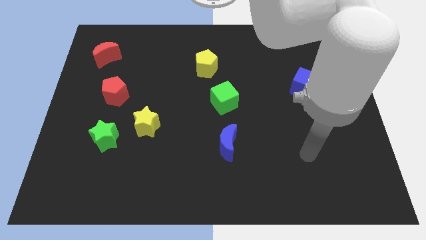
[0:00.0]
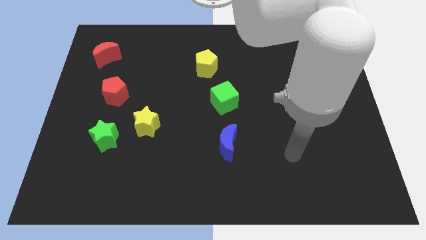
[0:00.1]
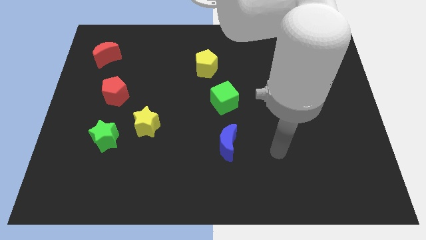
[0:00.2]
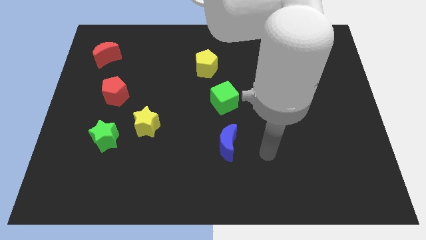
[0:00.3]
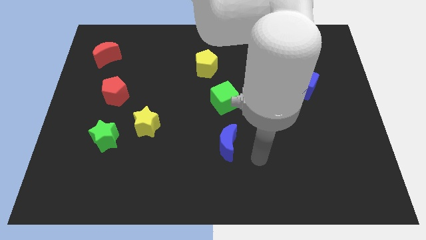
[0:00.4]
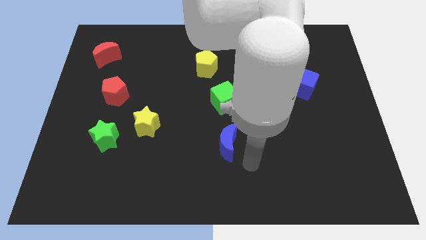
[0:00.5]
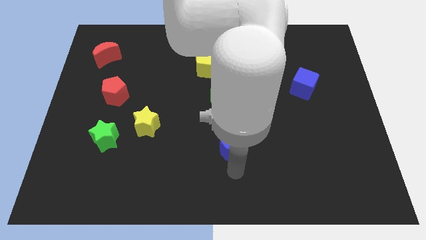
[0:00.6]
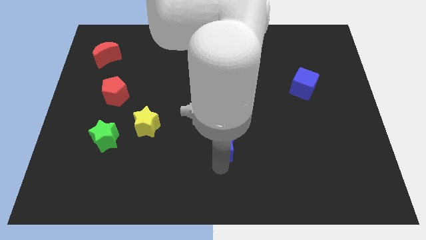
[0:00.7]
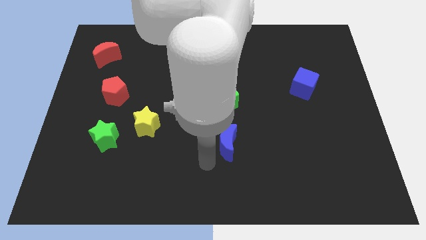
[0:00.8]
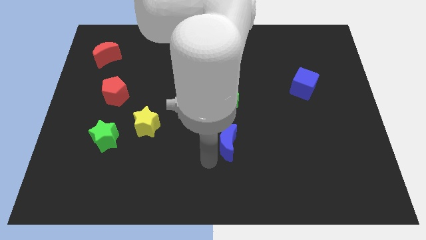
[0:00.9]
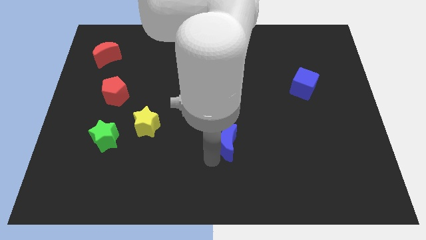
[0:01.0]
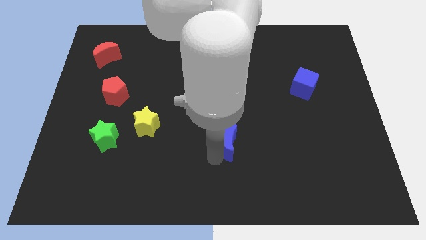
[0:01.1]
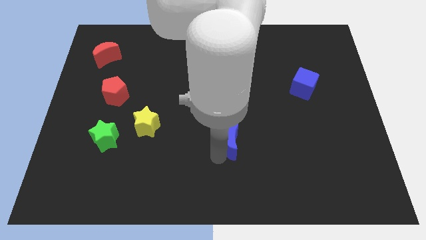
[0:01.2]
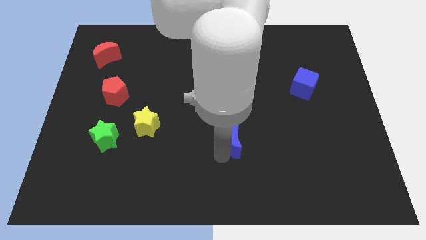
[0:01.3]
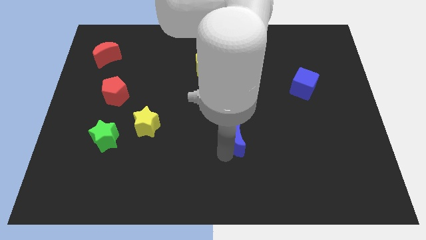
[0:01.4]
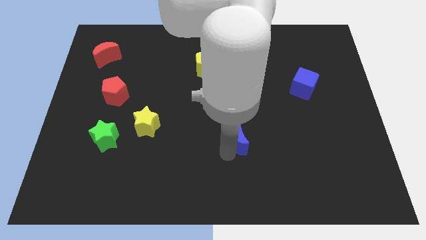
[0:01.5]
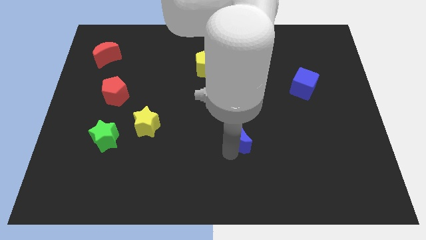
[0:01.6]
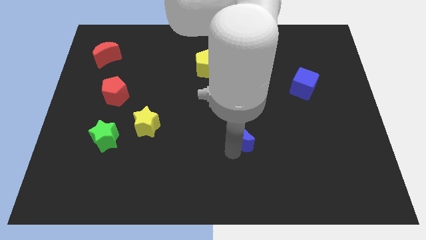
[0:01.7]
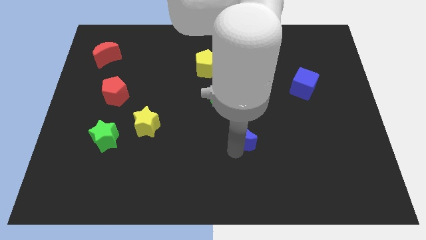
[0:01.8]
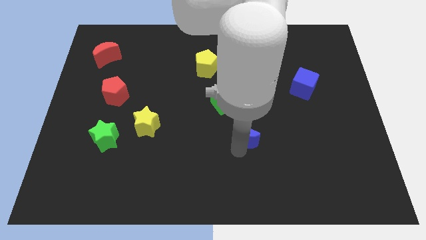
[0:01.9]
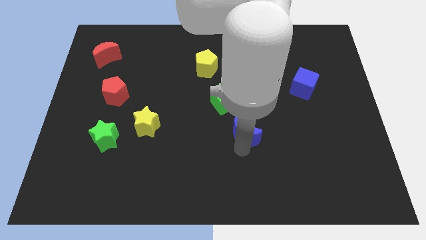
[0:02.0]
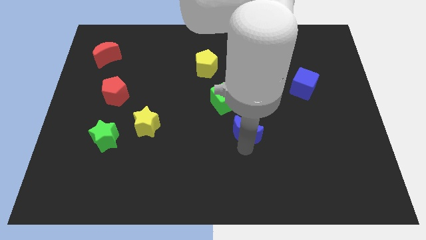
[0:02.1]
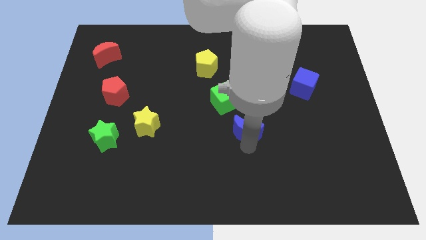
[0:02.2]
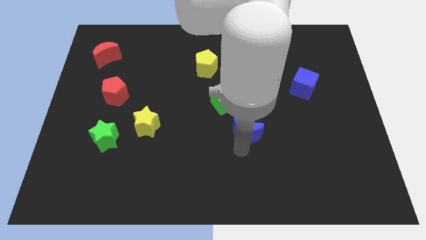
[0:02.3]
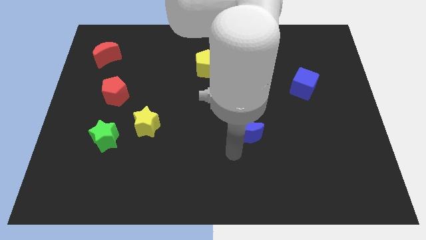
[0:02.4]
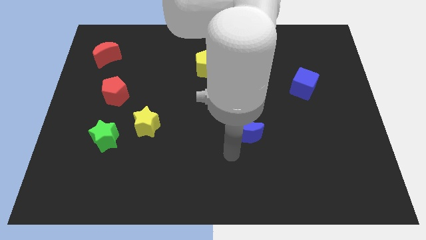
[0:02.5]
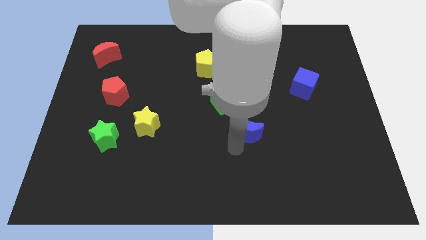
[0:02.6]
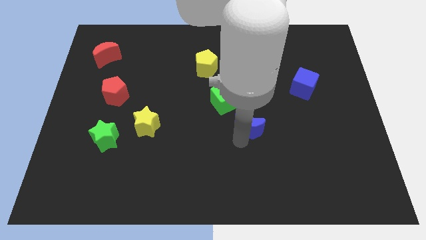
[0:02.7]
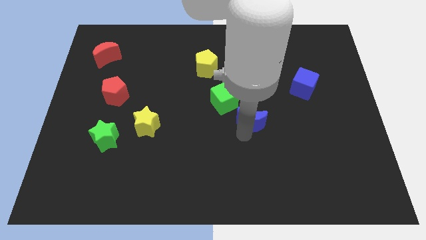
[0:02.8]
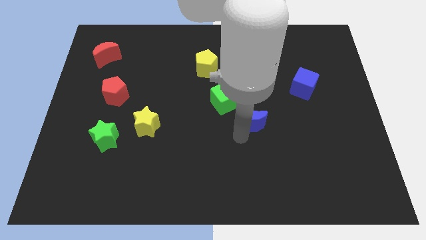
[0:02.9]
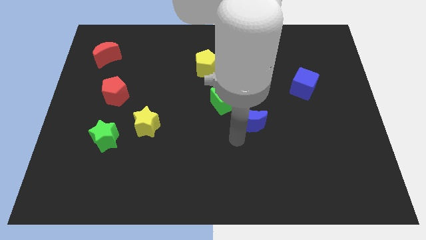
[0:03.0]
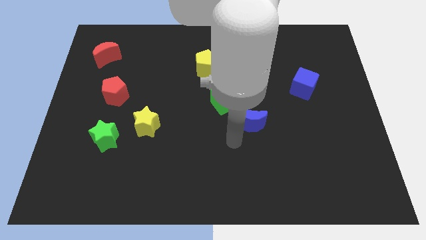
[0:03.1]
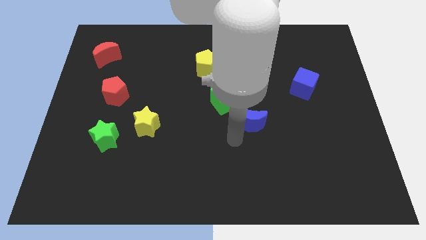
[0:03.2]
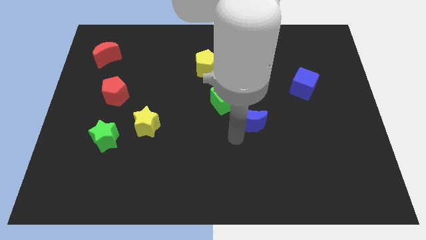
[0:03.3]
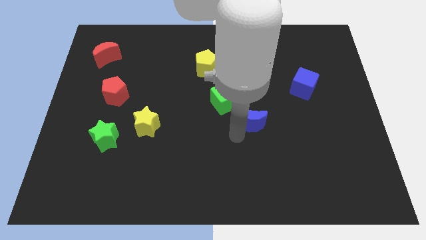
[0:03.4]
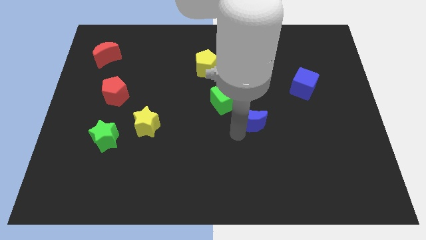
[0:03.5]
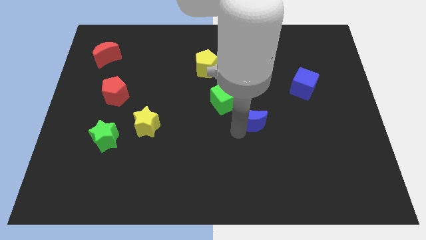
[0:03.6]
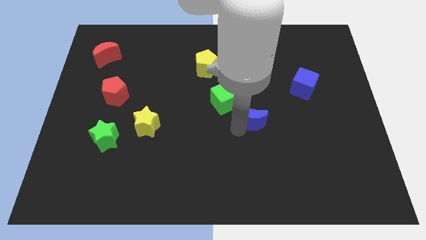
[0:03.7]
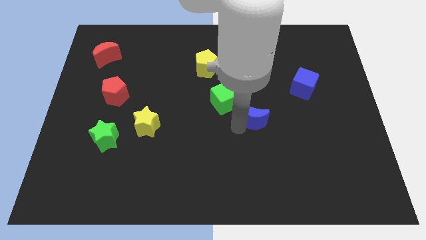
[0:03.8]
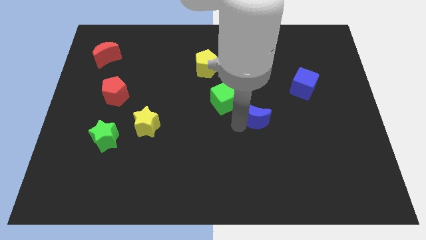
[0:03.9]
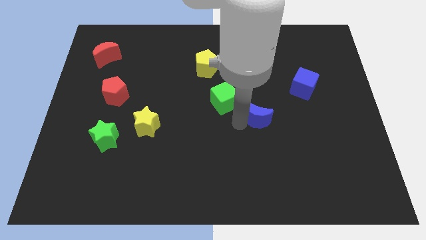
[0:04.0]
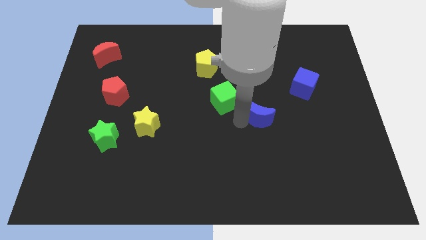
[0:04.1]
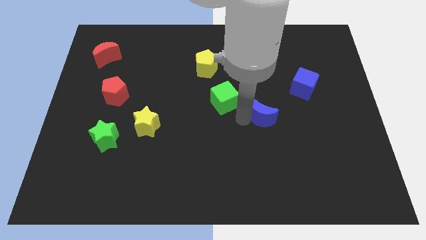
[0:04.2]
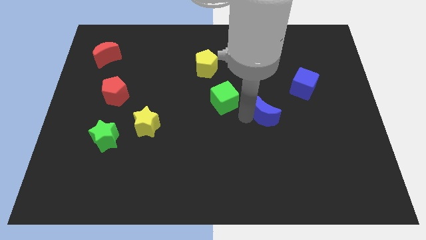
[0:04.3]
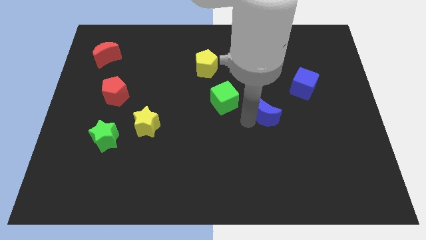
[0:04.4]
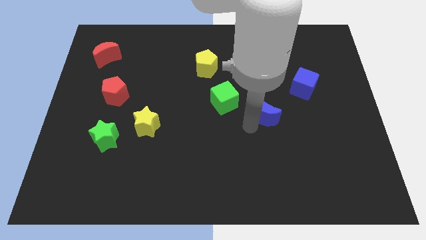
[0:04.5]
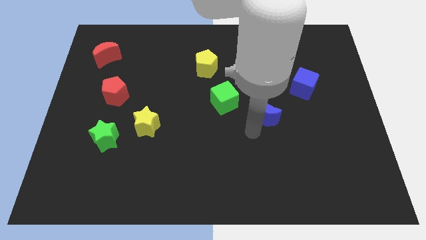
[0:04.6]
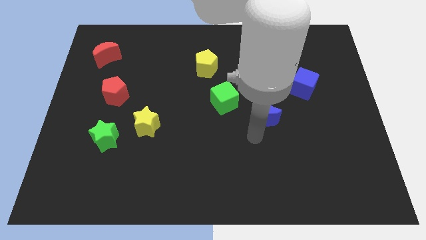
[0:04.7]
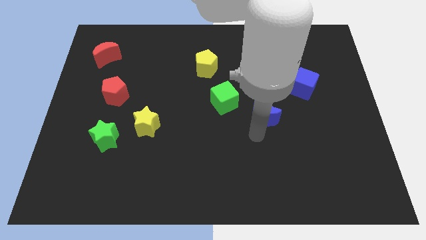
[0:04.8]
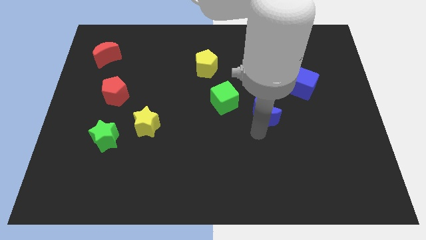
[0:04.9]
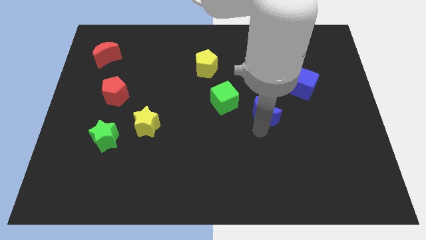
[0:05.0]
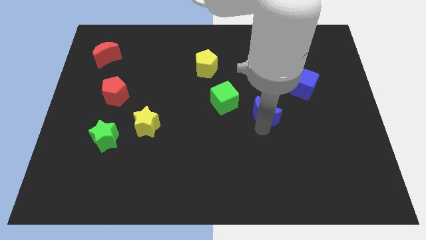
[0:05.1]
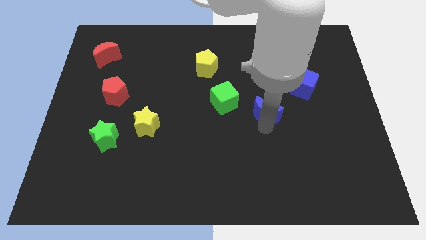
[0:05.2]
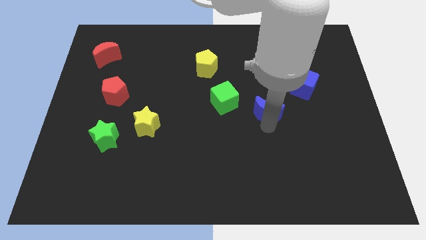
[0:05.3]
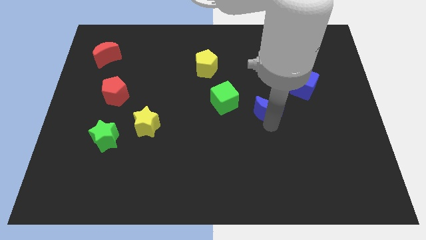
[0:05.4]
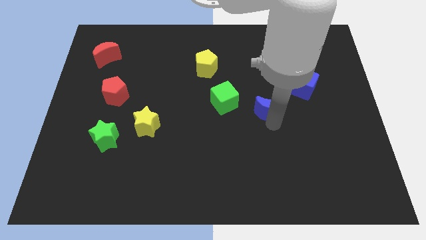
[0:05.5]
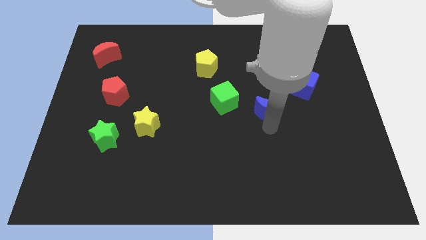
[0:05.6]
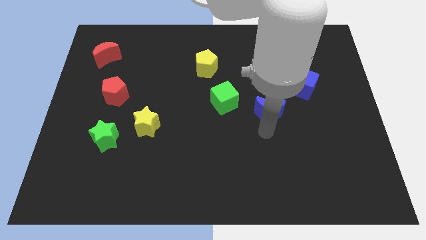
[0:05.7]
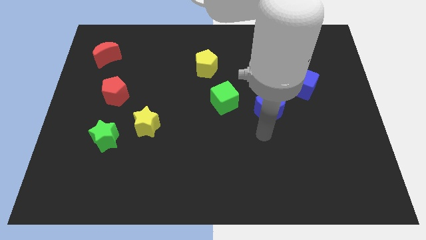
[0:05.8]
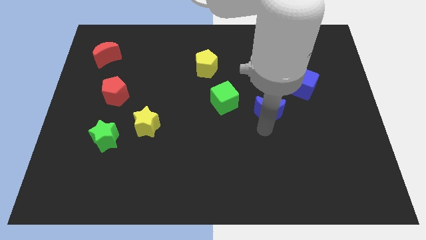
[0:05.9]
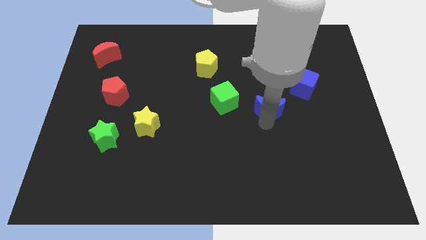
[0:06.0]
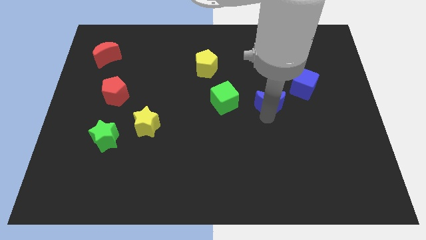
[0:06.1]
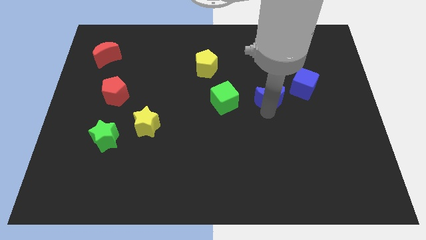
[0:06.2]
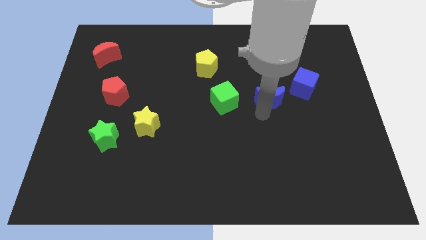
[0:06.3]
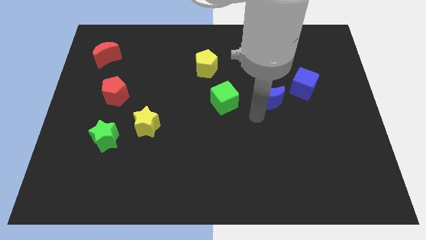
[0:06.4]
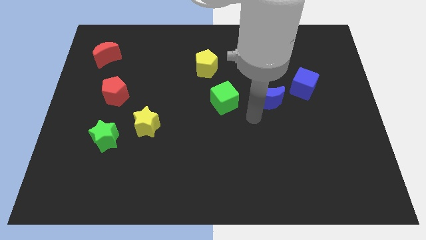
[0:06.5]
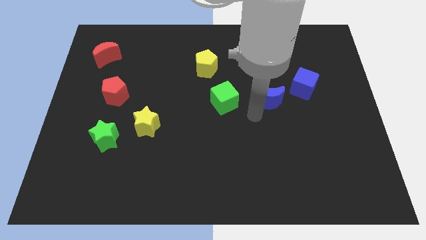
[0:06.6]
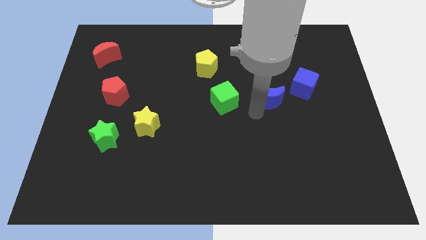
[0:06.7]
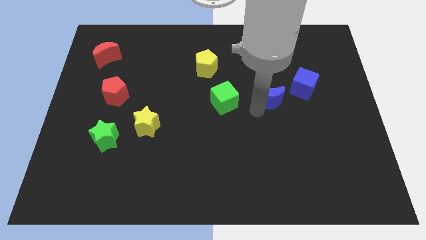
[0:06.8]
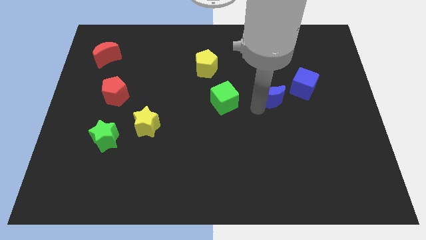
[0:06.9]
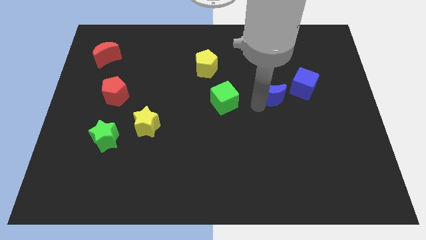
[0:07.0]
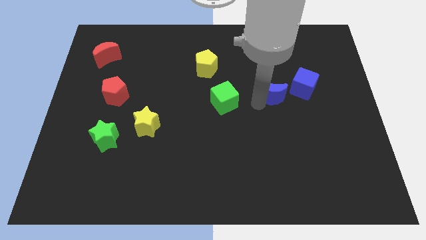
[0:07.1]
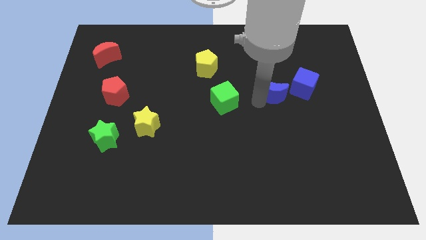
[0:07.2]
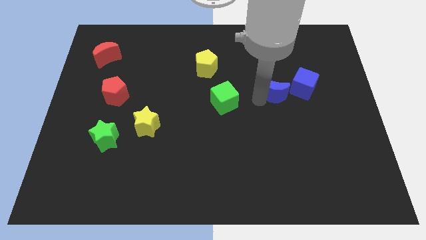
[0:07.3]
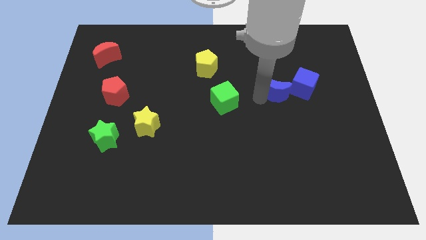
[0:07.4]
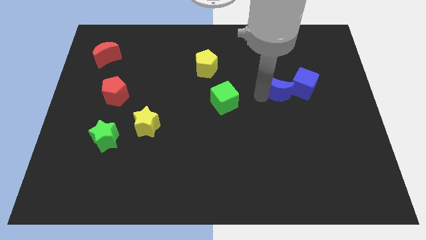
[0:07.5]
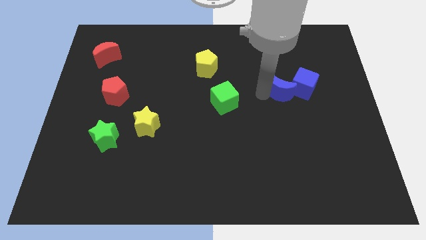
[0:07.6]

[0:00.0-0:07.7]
move the blue moon up and right

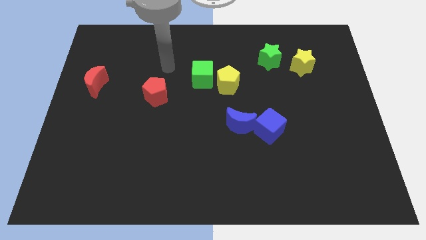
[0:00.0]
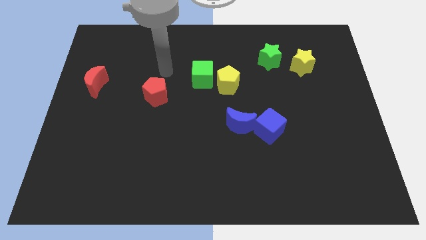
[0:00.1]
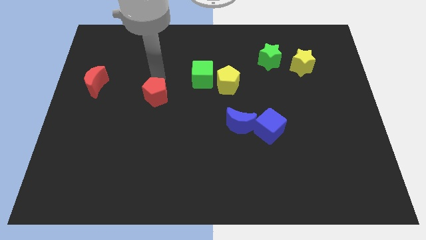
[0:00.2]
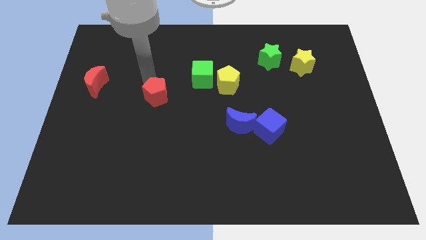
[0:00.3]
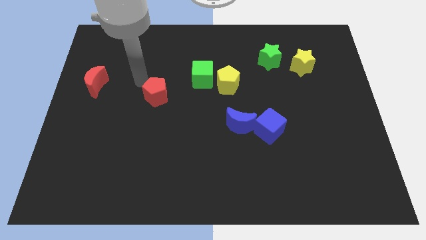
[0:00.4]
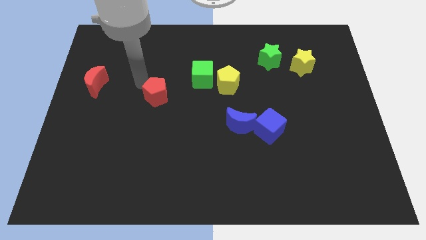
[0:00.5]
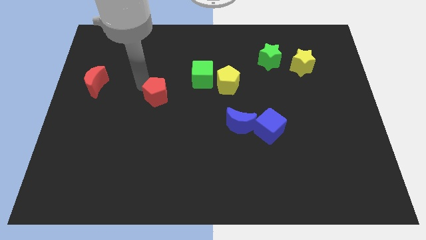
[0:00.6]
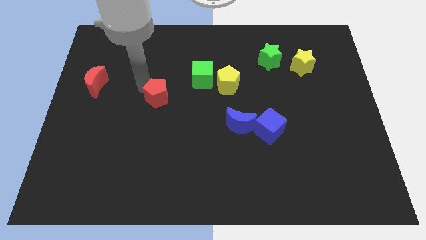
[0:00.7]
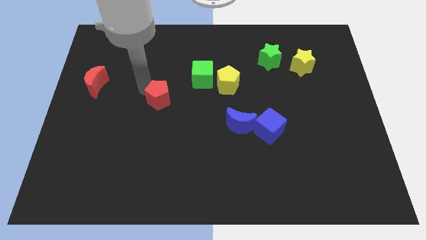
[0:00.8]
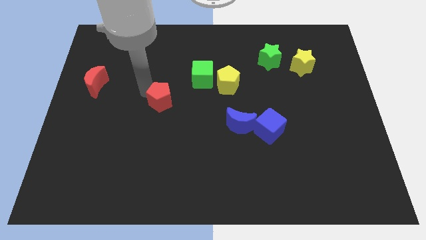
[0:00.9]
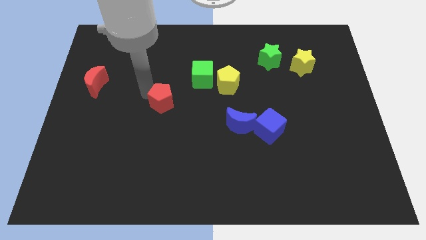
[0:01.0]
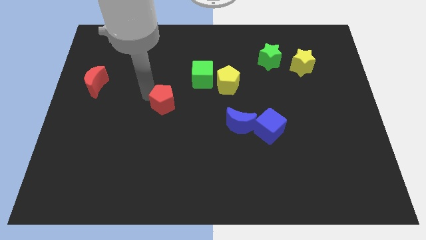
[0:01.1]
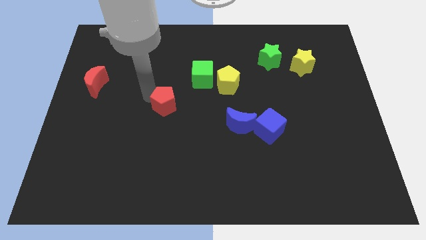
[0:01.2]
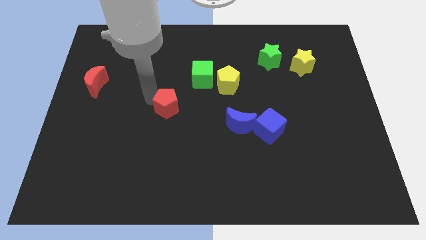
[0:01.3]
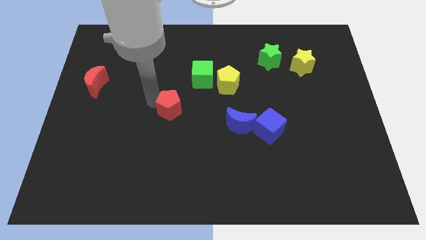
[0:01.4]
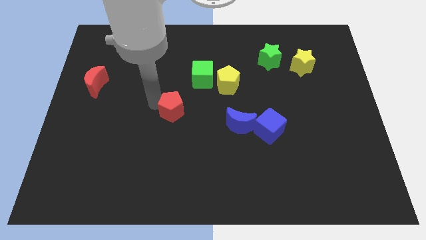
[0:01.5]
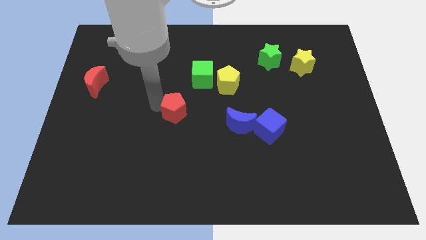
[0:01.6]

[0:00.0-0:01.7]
push the red pentagon a little down and to the right diagonally
